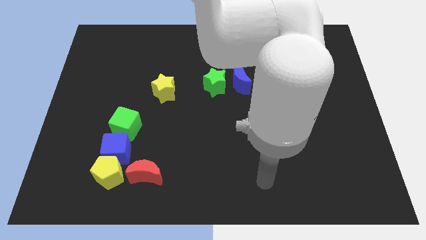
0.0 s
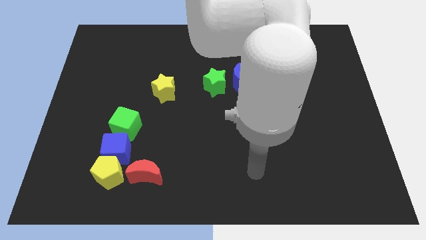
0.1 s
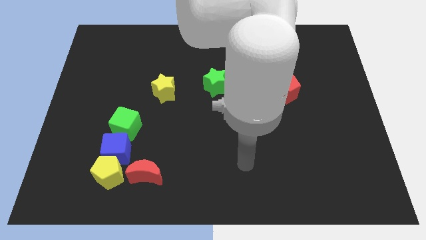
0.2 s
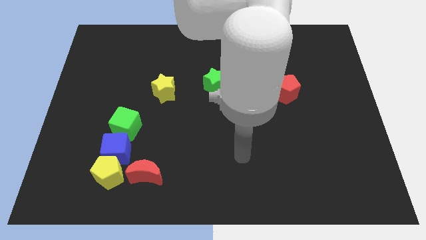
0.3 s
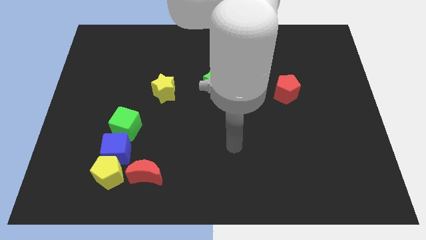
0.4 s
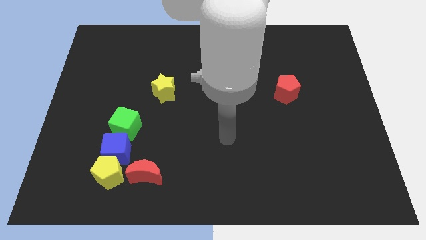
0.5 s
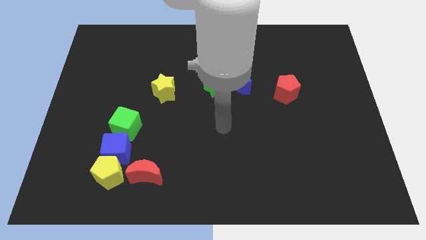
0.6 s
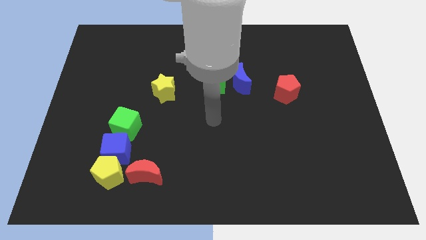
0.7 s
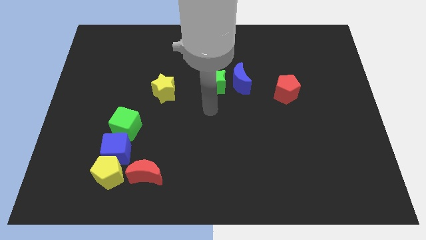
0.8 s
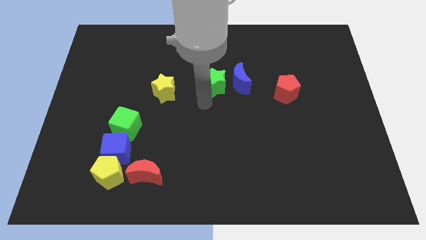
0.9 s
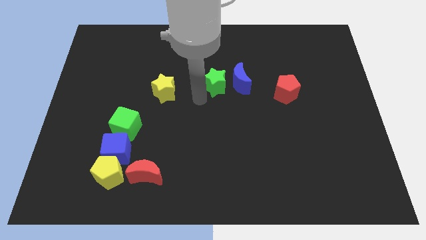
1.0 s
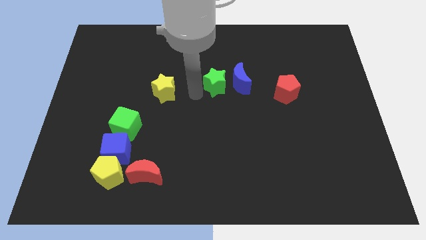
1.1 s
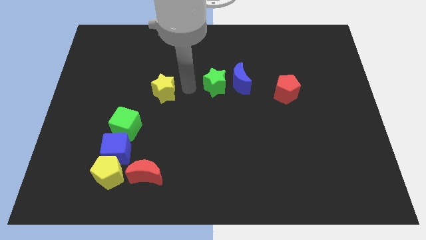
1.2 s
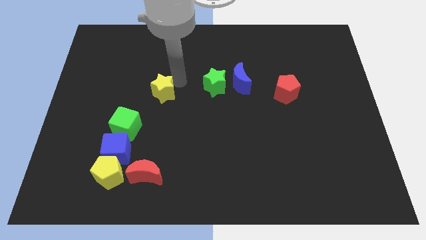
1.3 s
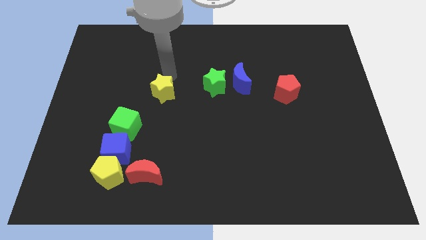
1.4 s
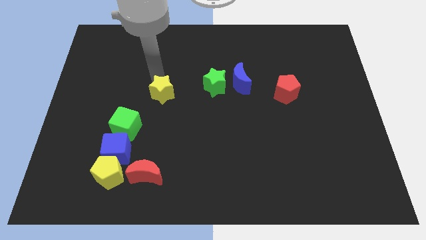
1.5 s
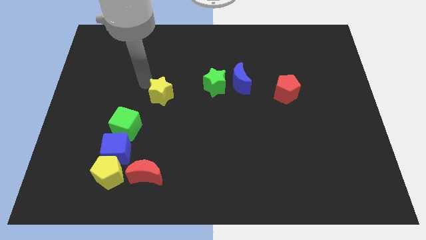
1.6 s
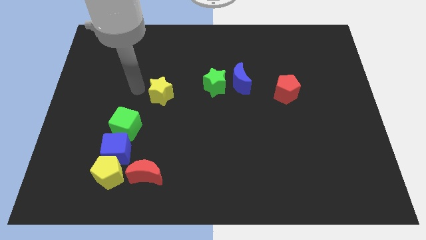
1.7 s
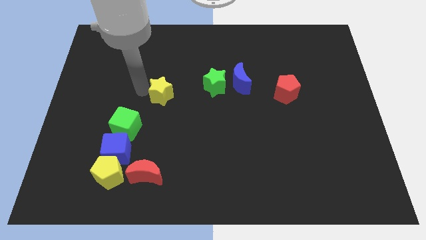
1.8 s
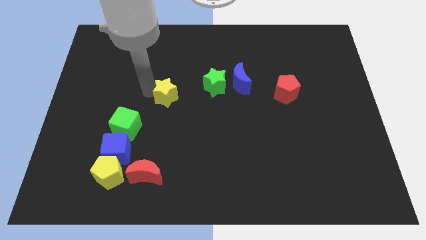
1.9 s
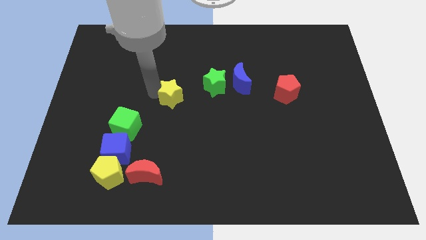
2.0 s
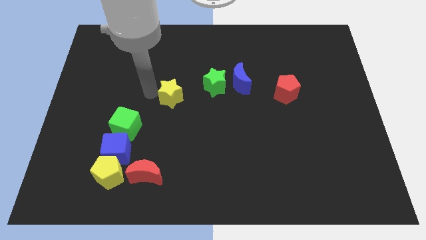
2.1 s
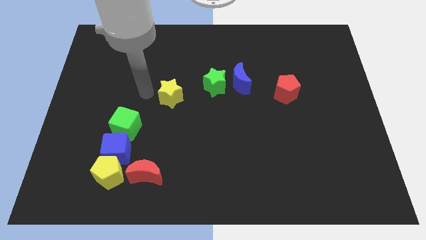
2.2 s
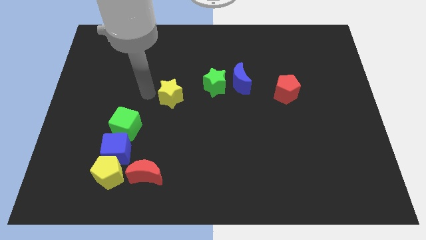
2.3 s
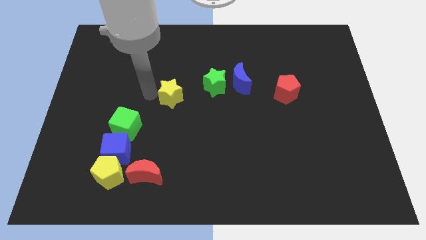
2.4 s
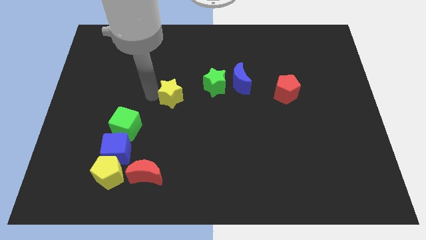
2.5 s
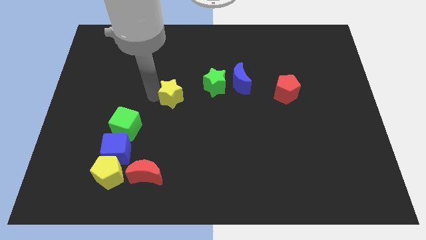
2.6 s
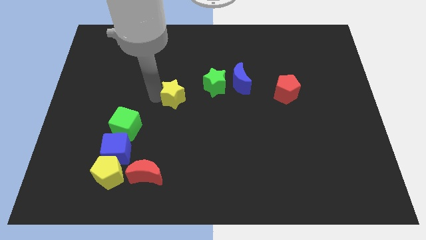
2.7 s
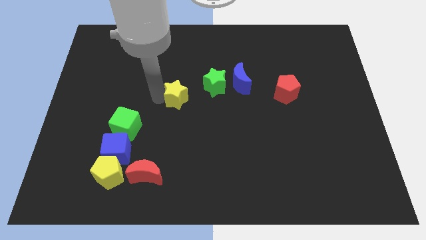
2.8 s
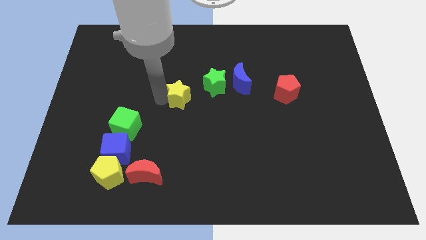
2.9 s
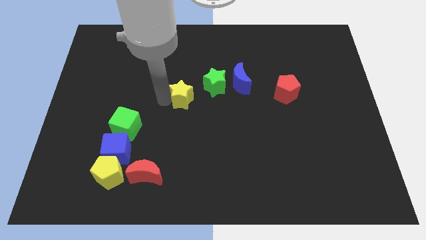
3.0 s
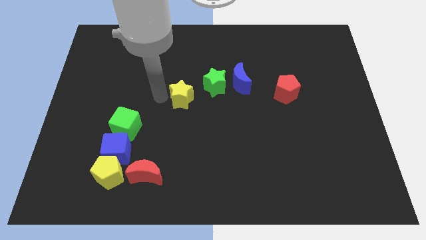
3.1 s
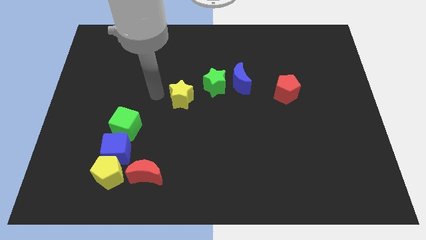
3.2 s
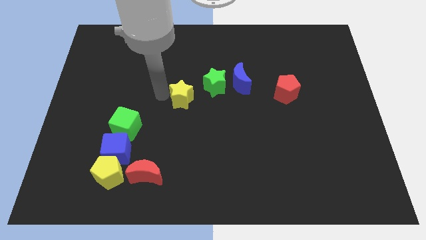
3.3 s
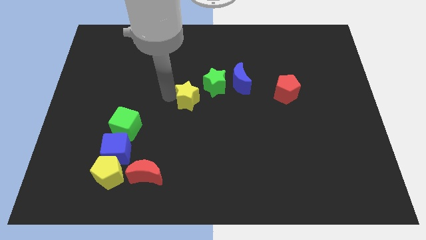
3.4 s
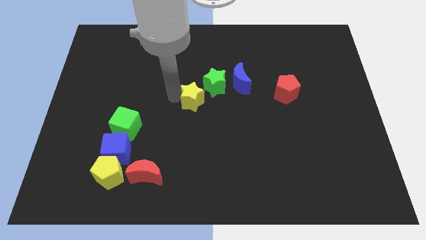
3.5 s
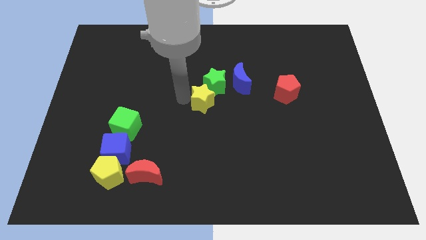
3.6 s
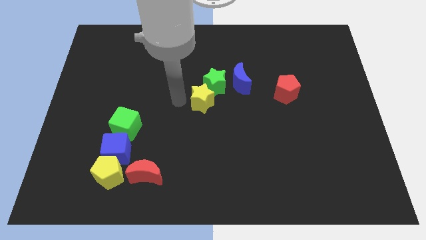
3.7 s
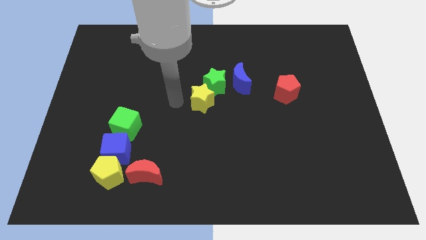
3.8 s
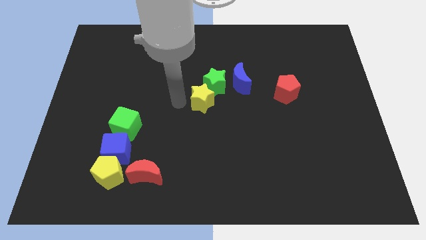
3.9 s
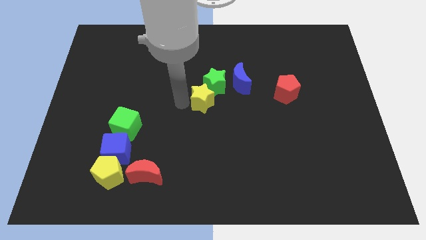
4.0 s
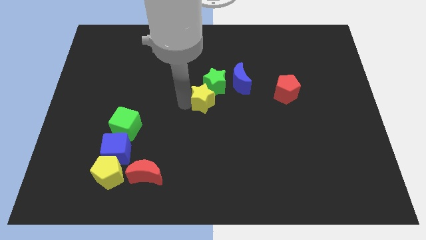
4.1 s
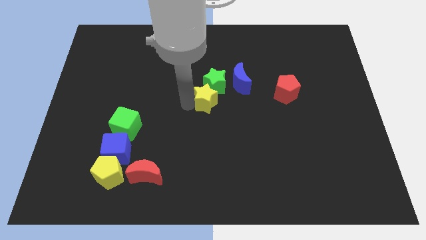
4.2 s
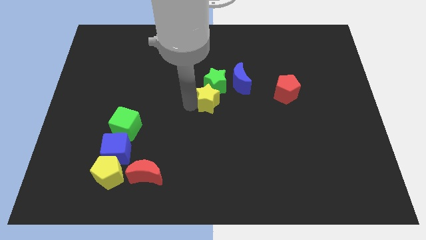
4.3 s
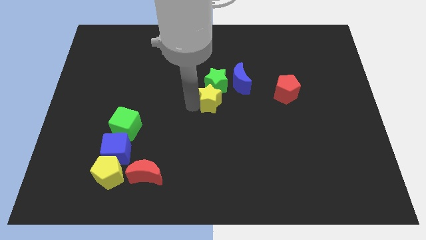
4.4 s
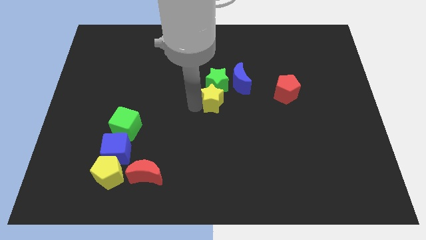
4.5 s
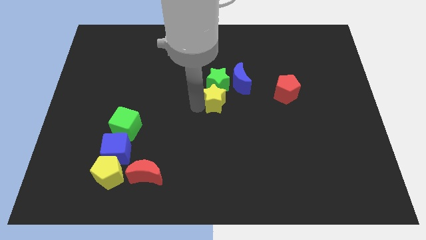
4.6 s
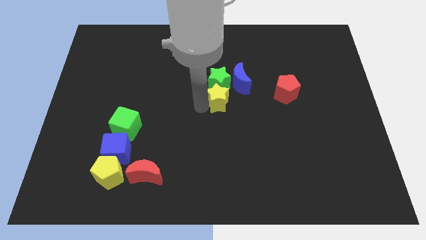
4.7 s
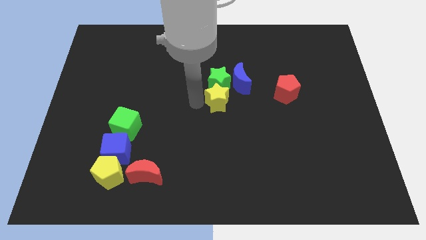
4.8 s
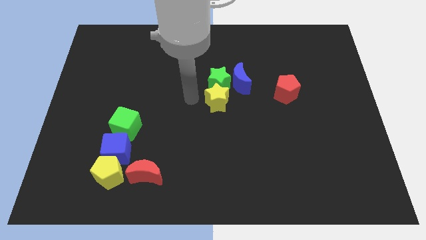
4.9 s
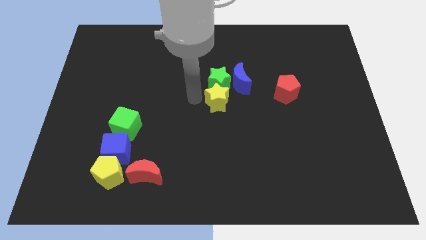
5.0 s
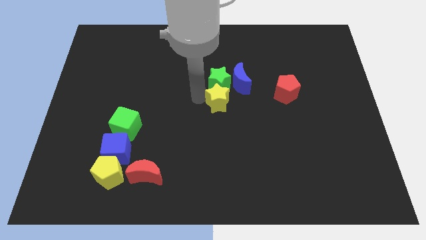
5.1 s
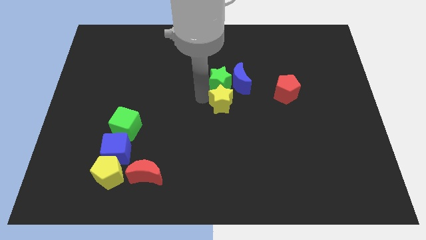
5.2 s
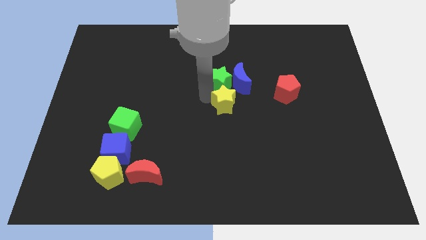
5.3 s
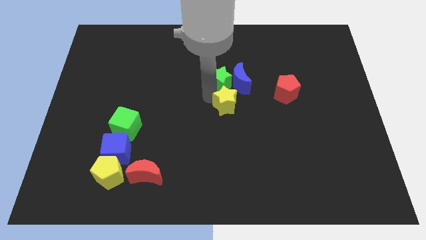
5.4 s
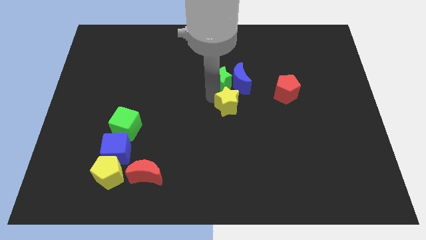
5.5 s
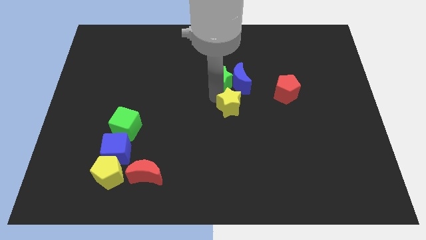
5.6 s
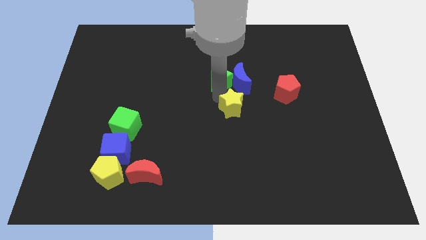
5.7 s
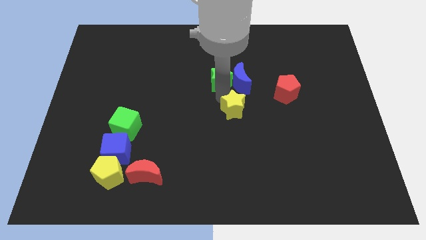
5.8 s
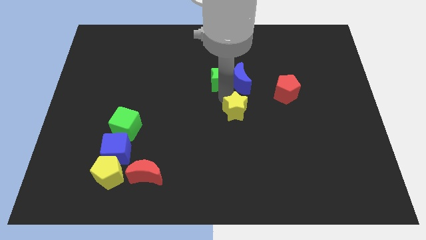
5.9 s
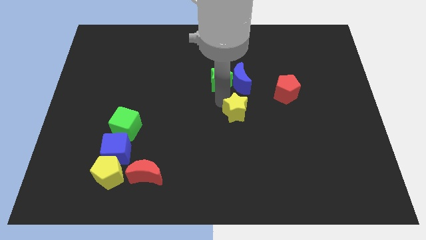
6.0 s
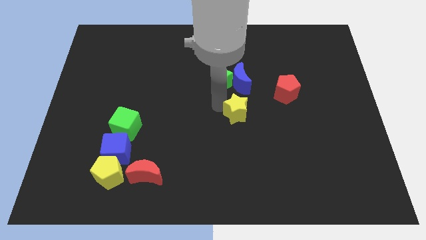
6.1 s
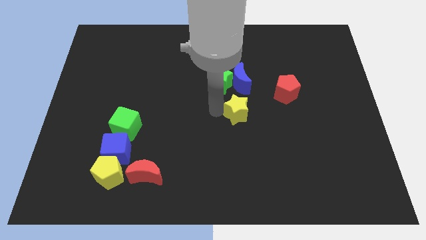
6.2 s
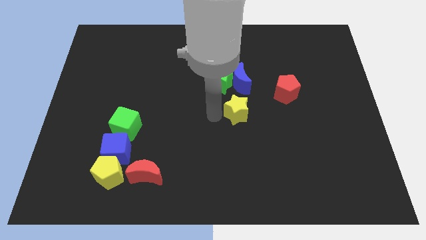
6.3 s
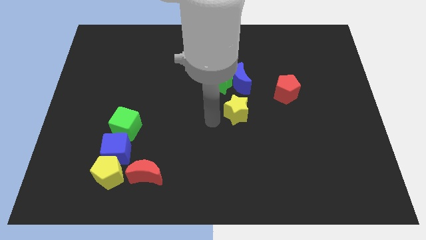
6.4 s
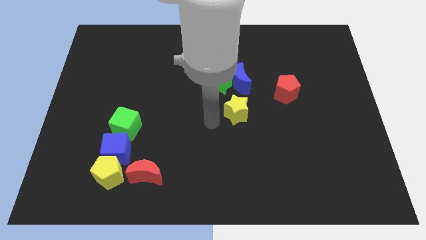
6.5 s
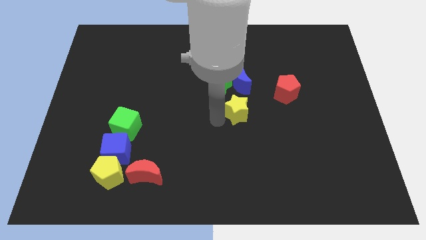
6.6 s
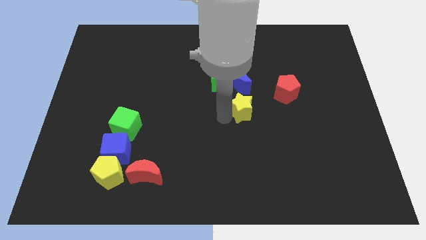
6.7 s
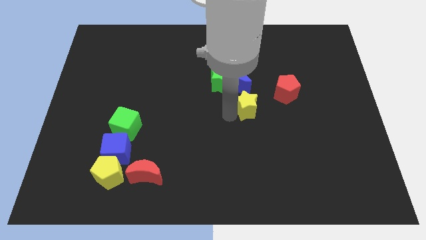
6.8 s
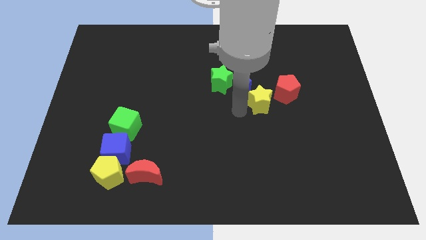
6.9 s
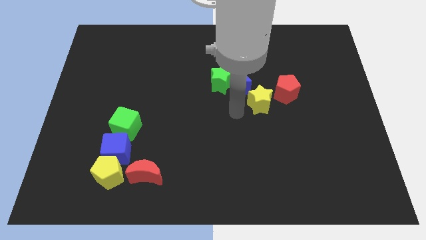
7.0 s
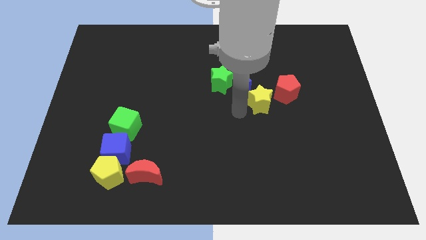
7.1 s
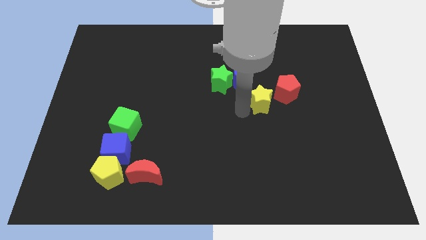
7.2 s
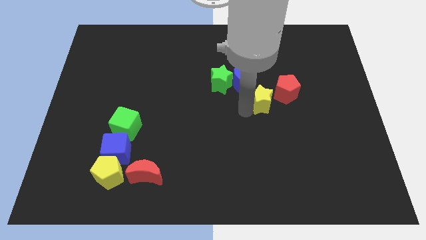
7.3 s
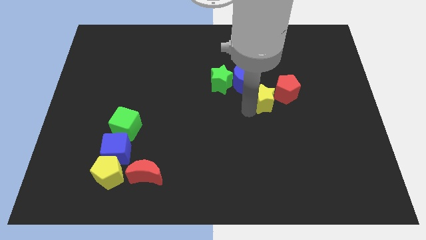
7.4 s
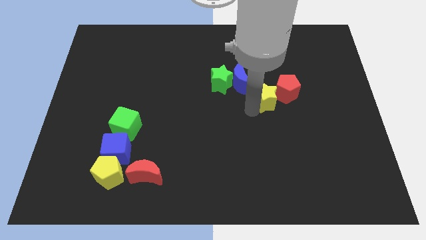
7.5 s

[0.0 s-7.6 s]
put the yellow star close to the red pentagon
